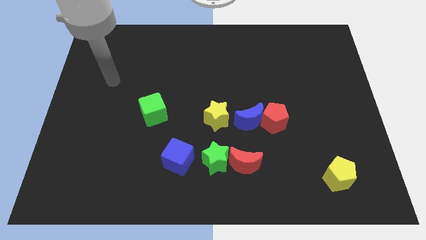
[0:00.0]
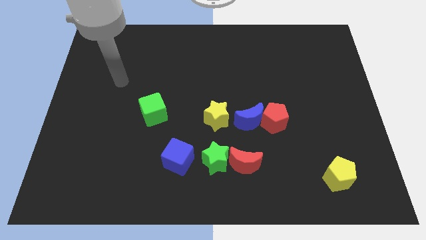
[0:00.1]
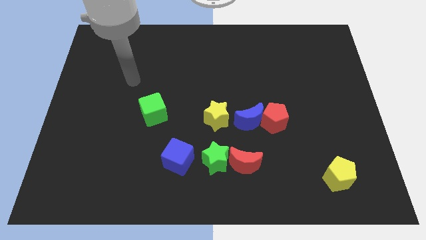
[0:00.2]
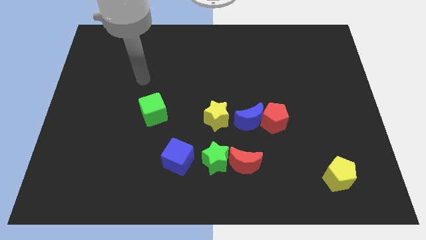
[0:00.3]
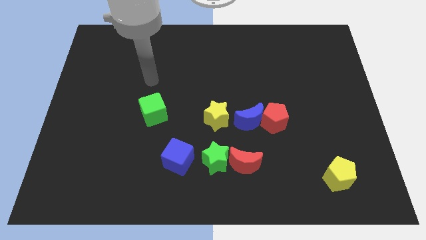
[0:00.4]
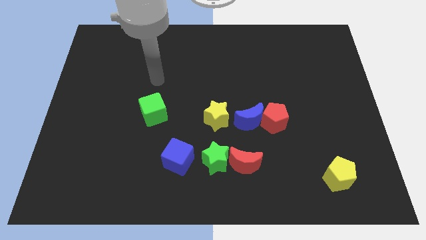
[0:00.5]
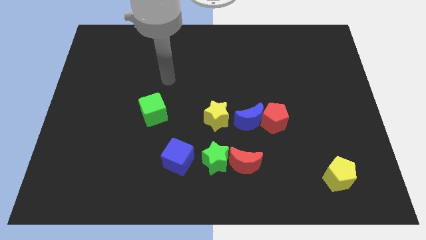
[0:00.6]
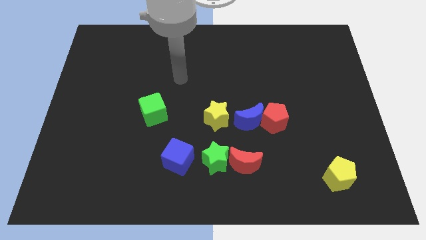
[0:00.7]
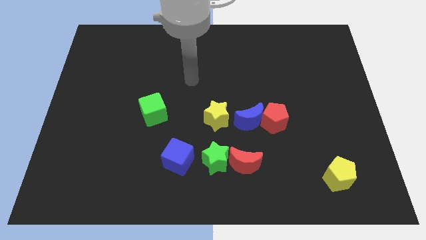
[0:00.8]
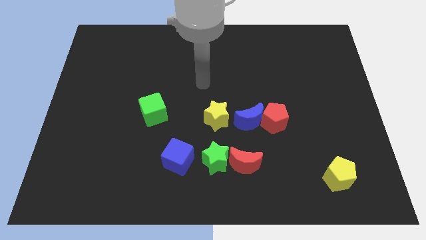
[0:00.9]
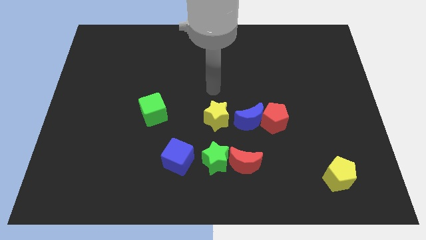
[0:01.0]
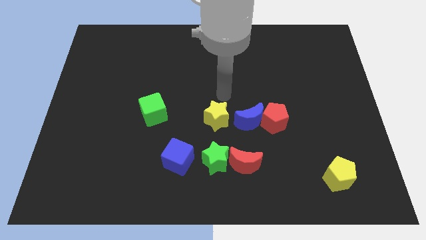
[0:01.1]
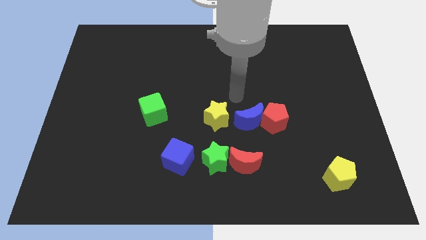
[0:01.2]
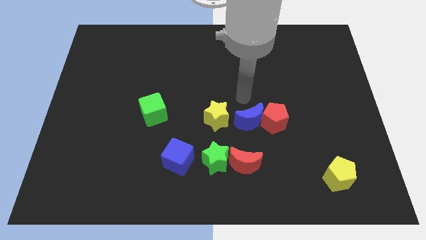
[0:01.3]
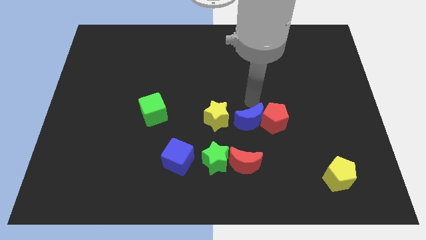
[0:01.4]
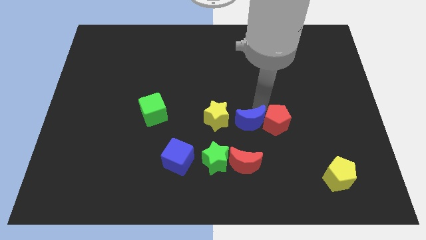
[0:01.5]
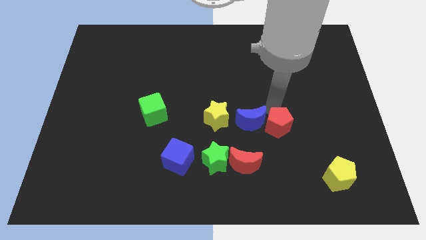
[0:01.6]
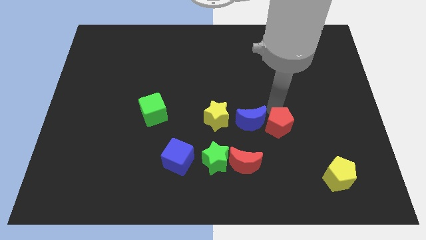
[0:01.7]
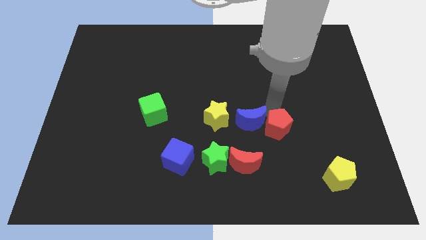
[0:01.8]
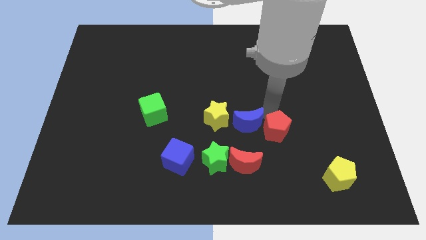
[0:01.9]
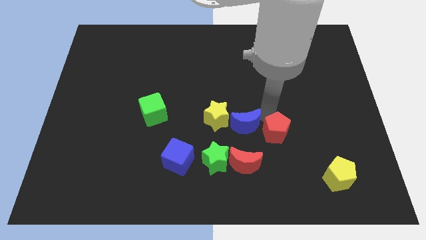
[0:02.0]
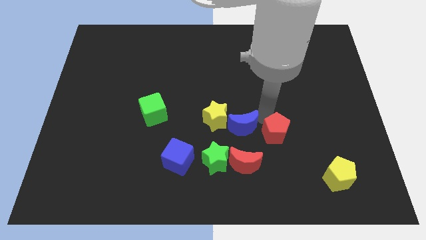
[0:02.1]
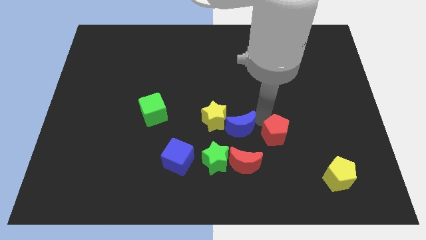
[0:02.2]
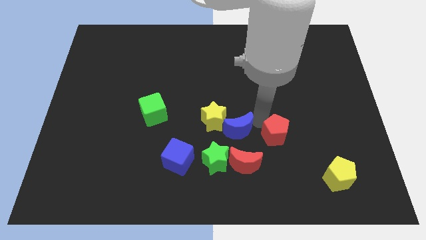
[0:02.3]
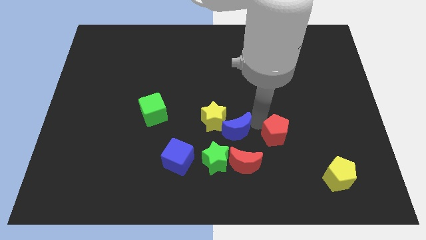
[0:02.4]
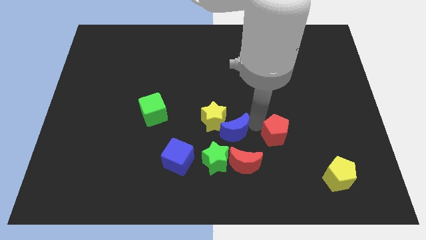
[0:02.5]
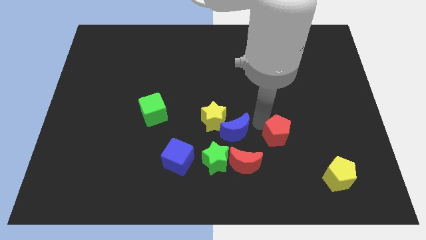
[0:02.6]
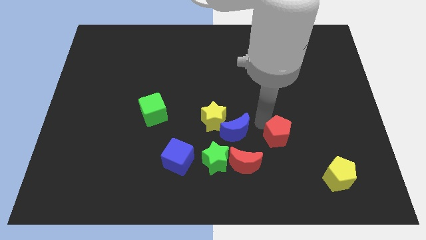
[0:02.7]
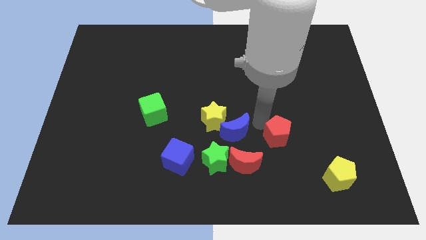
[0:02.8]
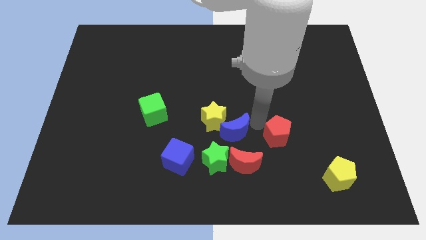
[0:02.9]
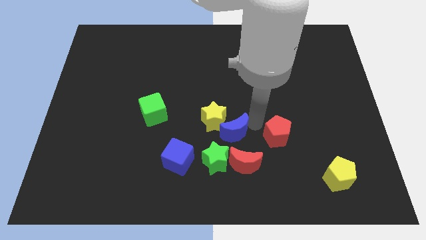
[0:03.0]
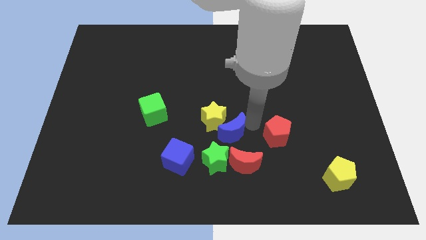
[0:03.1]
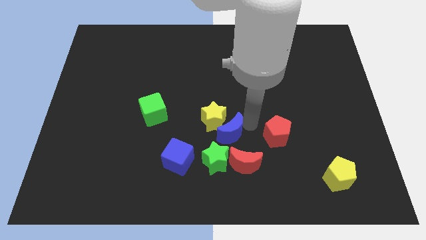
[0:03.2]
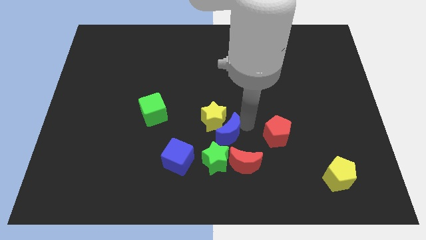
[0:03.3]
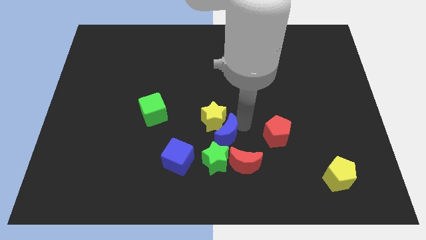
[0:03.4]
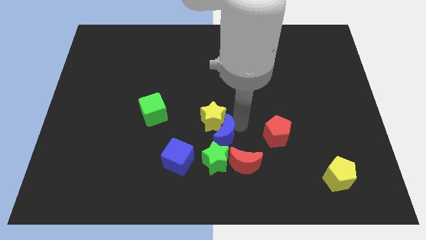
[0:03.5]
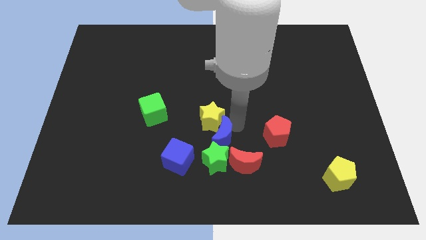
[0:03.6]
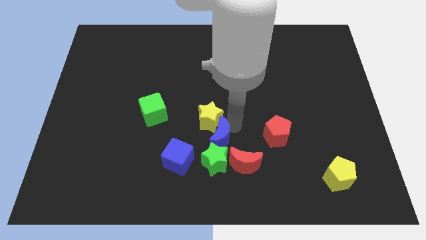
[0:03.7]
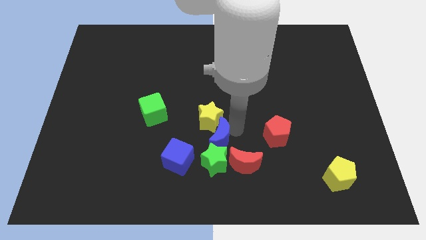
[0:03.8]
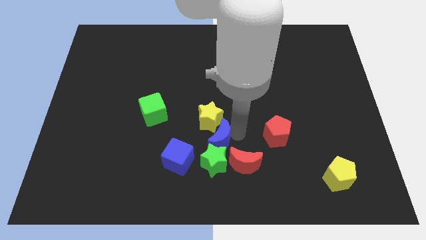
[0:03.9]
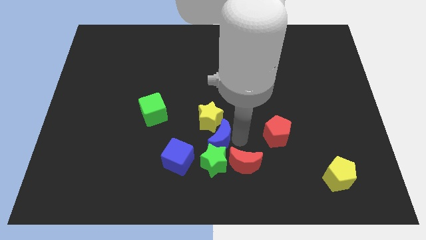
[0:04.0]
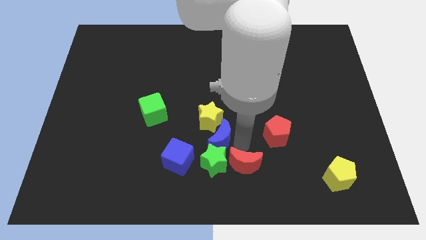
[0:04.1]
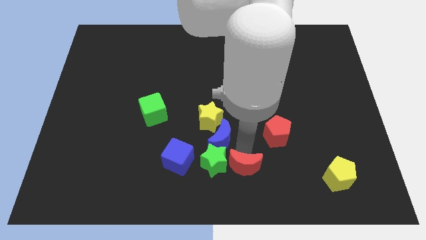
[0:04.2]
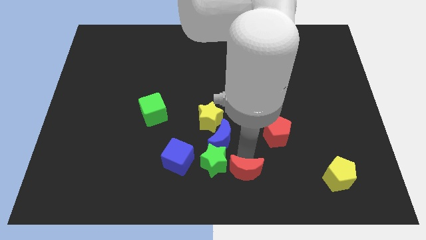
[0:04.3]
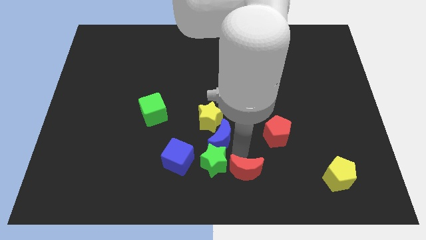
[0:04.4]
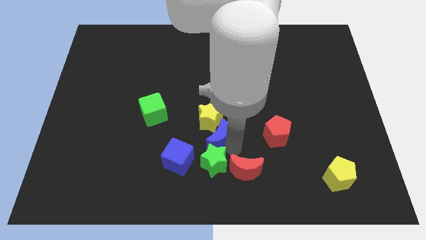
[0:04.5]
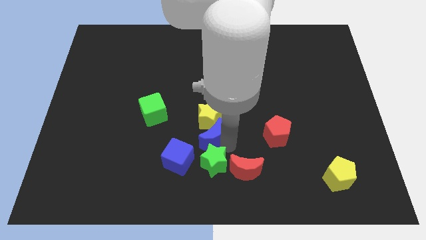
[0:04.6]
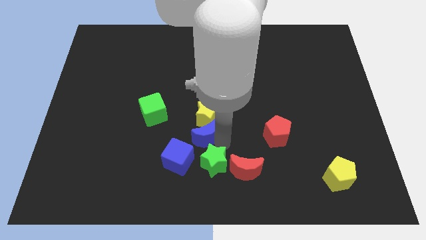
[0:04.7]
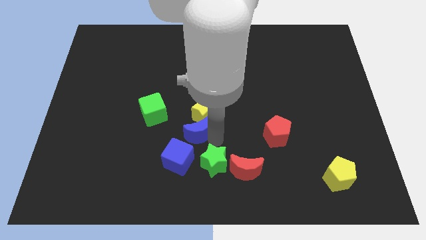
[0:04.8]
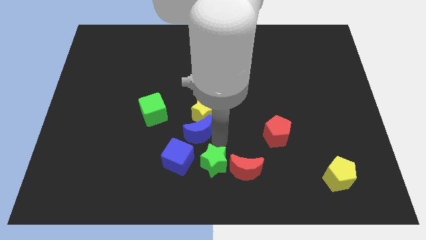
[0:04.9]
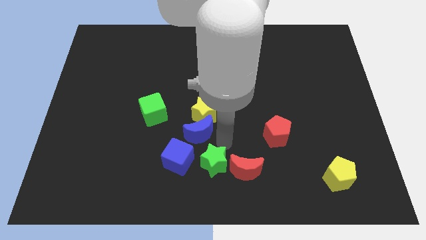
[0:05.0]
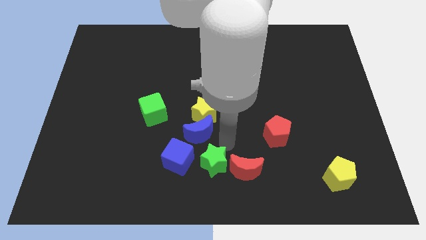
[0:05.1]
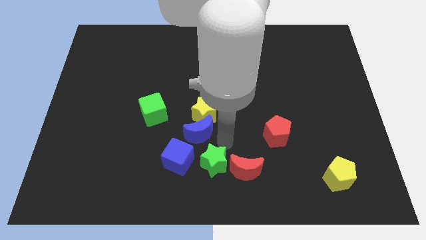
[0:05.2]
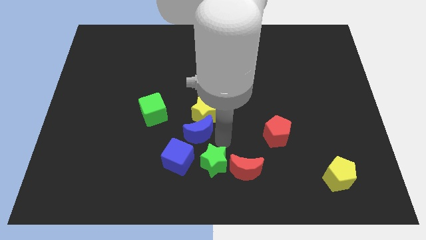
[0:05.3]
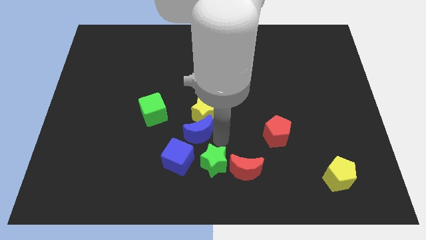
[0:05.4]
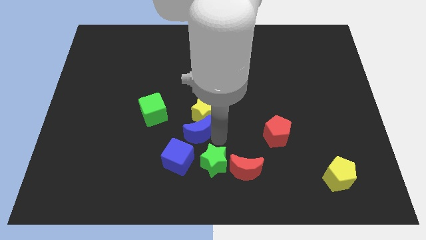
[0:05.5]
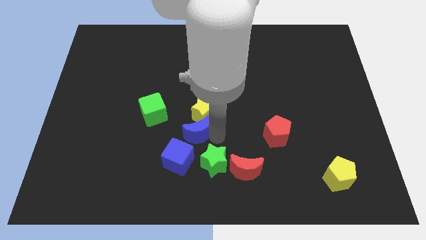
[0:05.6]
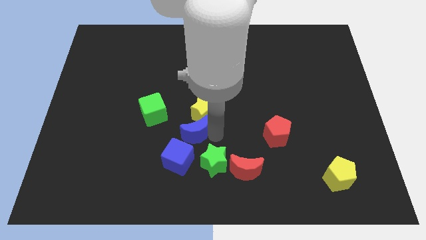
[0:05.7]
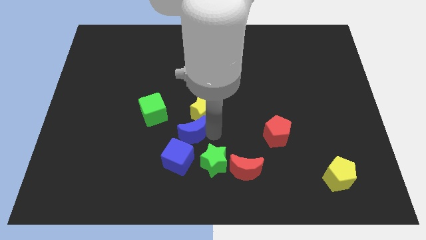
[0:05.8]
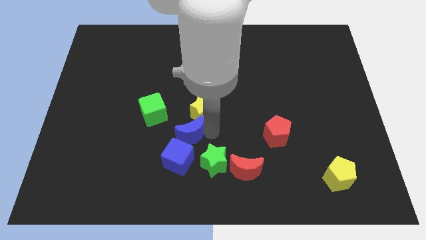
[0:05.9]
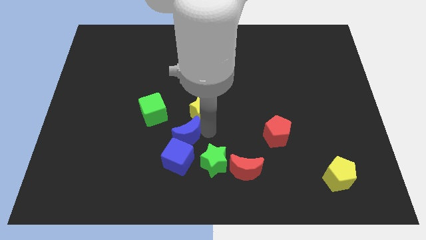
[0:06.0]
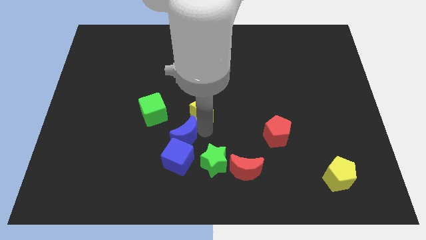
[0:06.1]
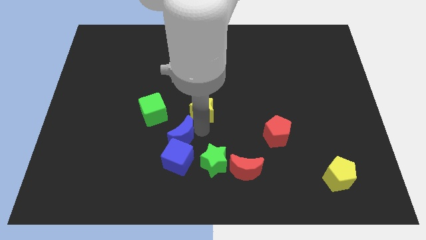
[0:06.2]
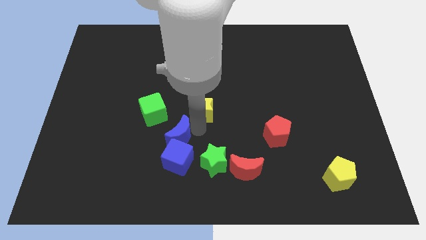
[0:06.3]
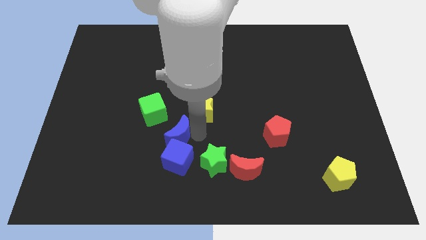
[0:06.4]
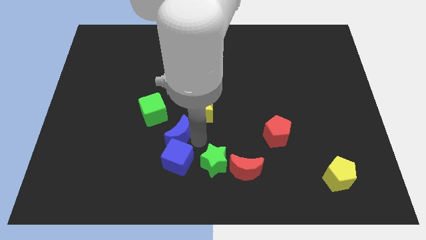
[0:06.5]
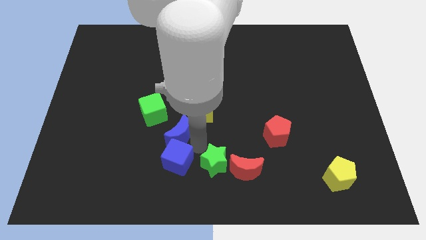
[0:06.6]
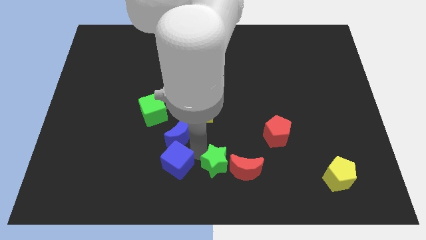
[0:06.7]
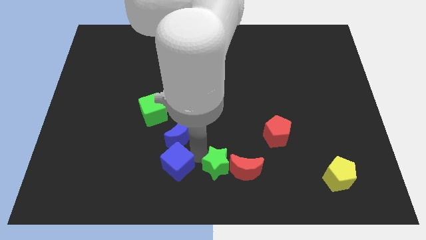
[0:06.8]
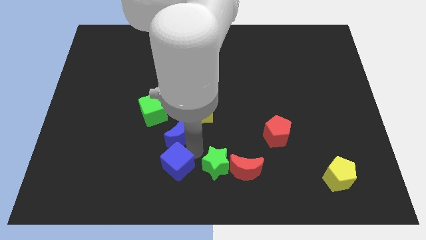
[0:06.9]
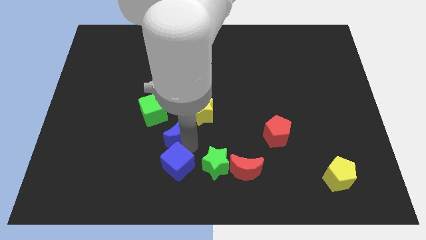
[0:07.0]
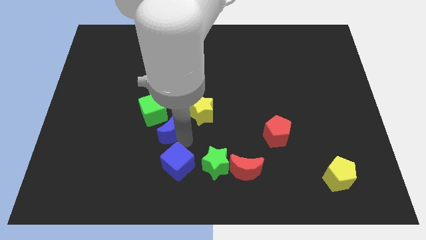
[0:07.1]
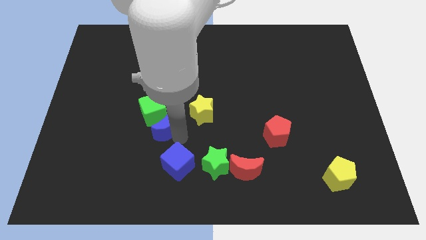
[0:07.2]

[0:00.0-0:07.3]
put the blue moon to the green cube
